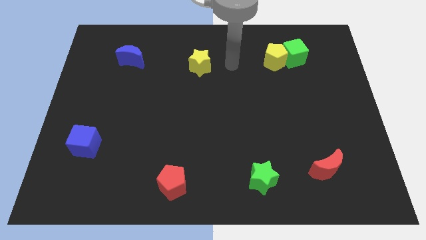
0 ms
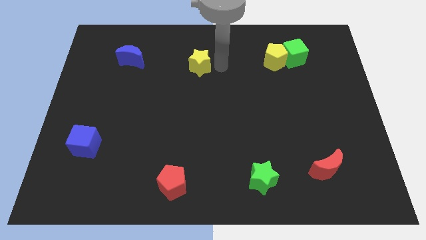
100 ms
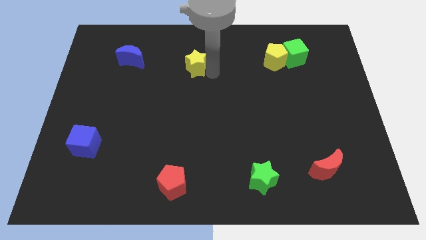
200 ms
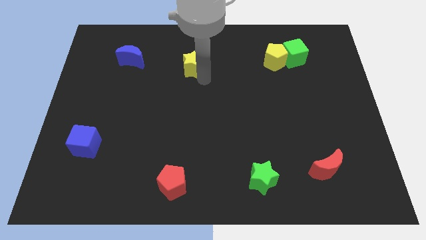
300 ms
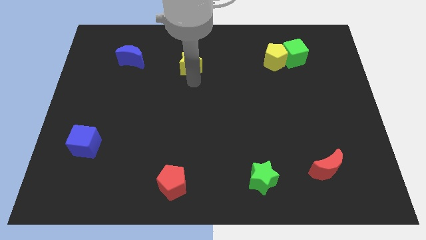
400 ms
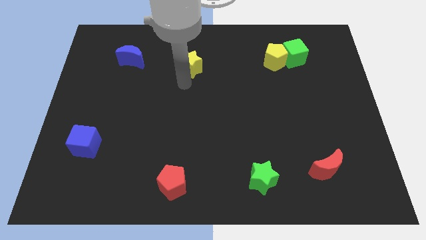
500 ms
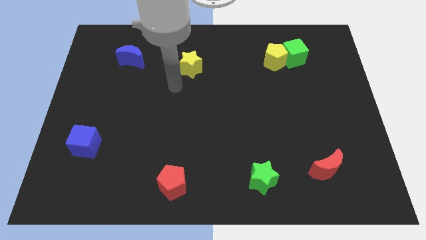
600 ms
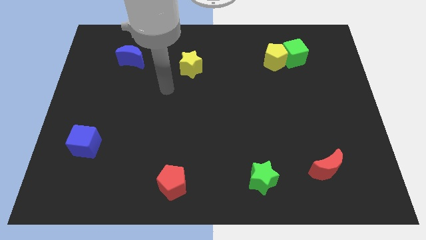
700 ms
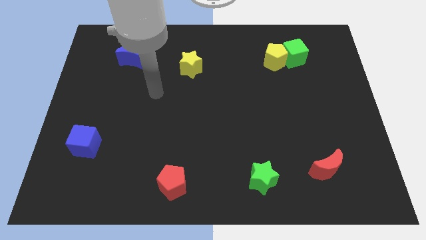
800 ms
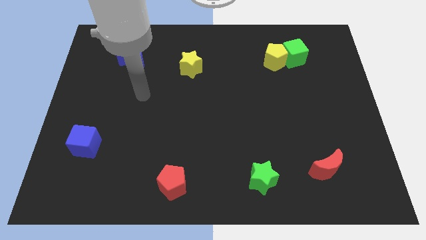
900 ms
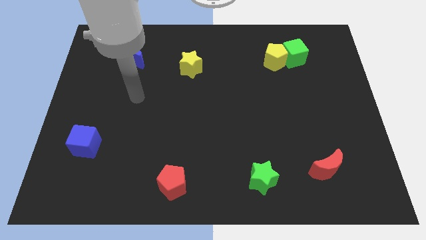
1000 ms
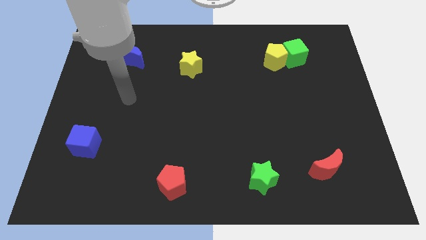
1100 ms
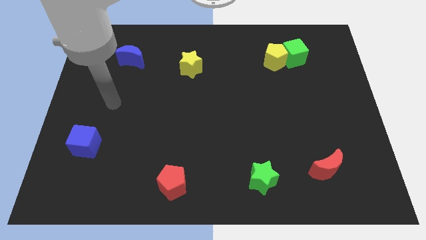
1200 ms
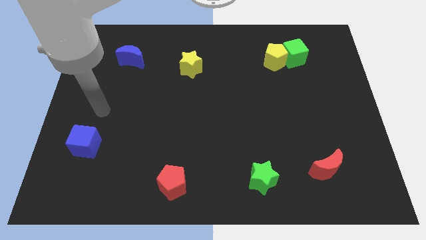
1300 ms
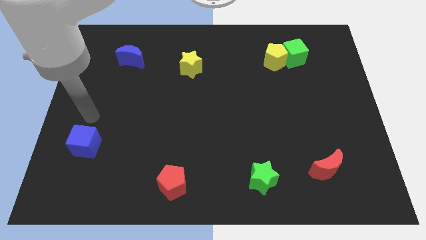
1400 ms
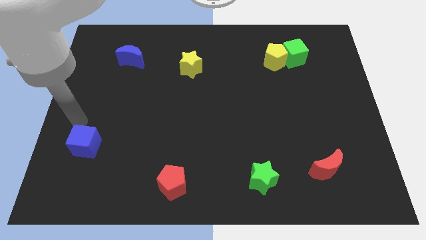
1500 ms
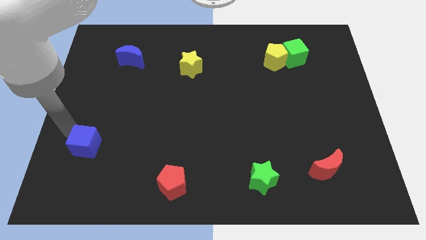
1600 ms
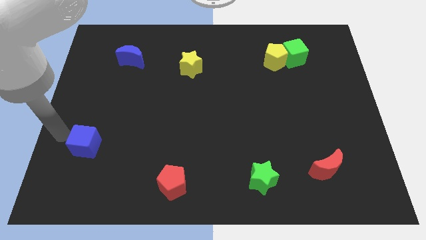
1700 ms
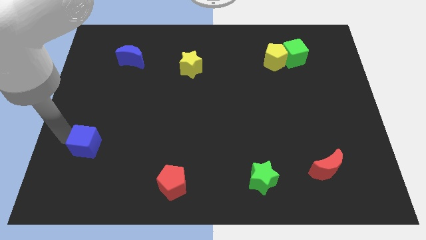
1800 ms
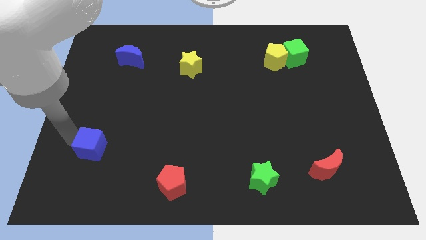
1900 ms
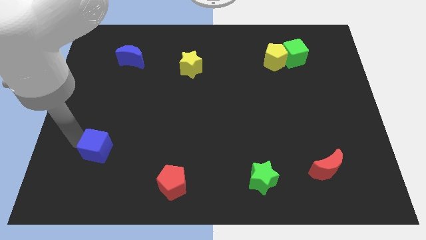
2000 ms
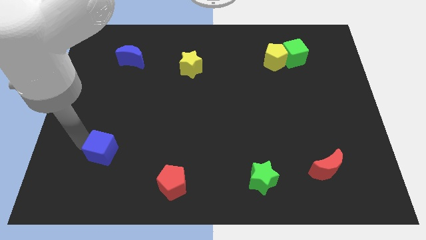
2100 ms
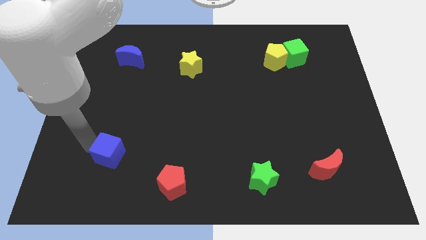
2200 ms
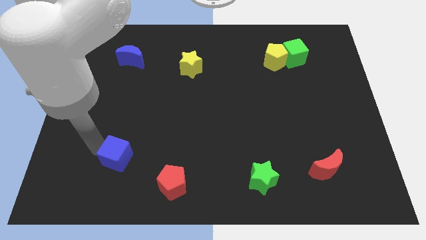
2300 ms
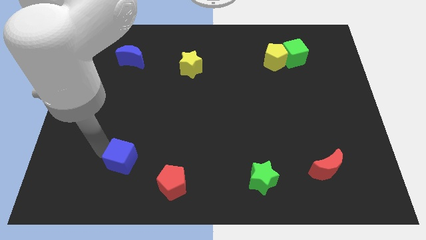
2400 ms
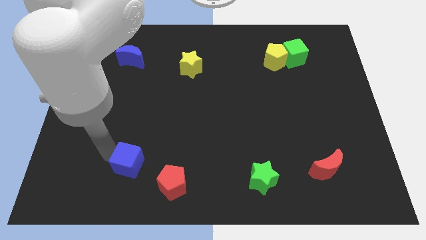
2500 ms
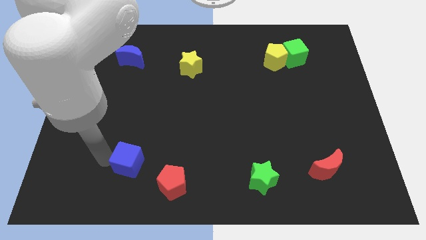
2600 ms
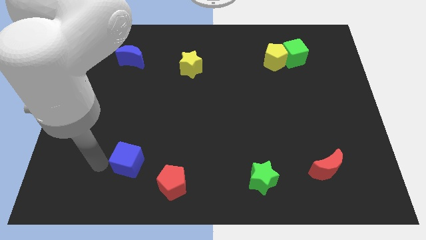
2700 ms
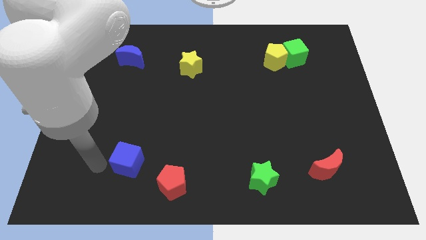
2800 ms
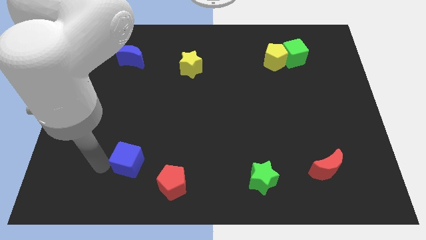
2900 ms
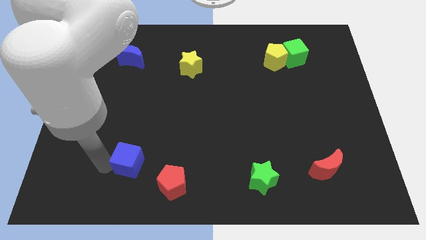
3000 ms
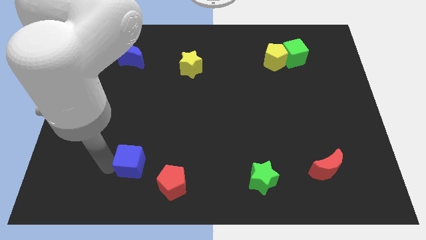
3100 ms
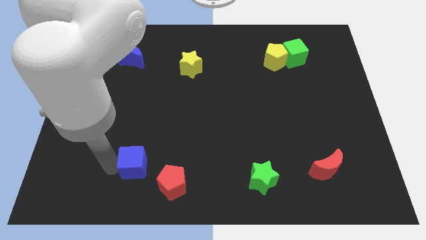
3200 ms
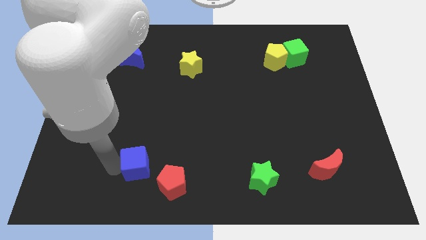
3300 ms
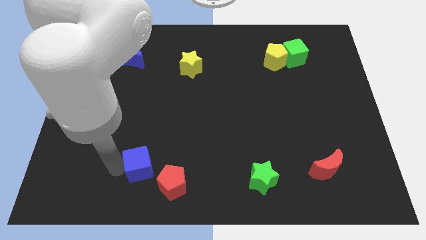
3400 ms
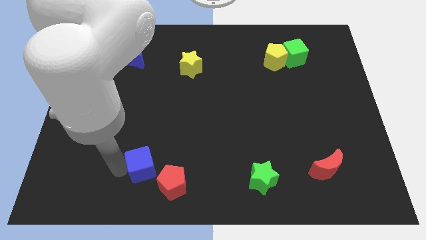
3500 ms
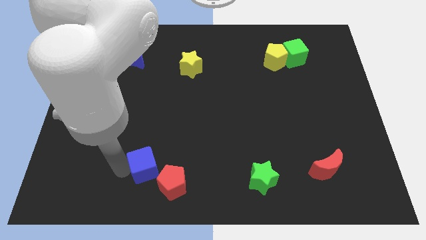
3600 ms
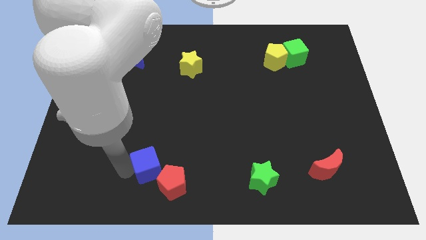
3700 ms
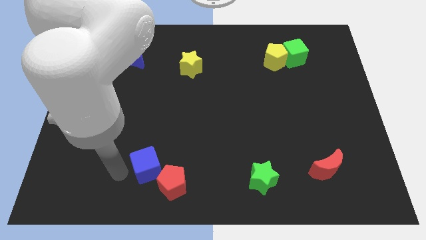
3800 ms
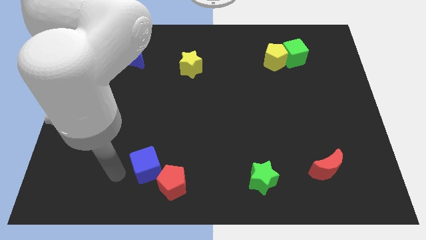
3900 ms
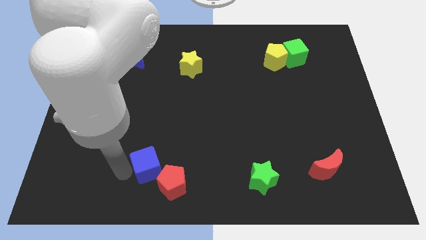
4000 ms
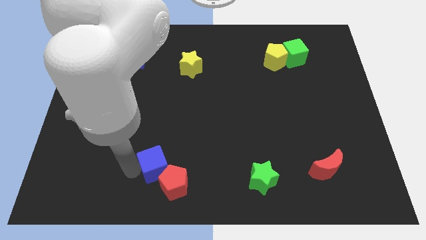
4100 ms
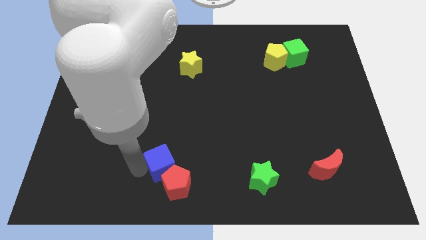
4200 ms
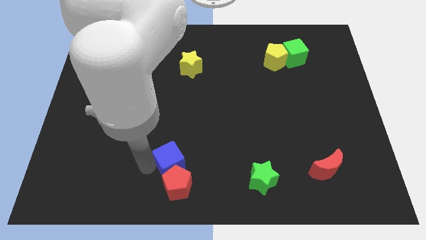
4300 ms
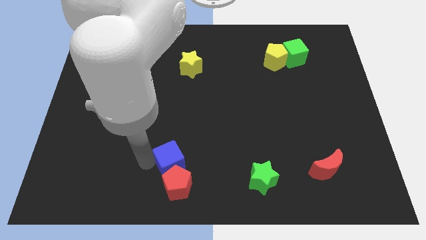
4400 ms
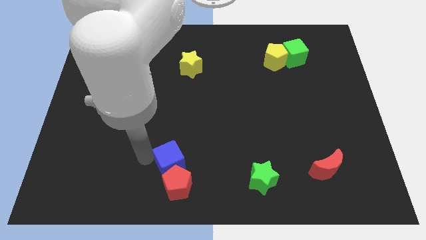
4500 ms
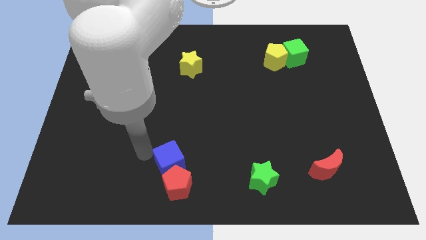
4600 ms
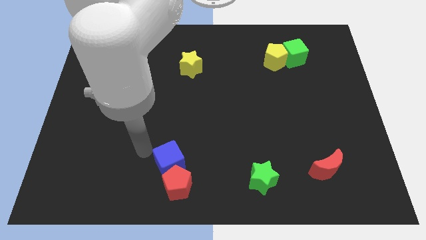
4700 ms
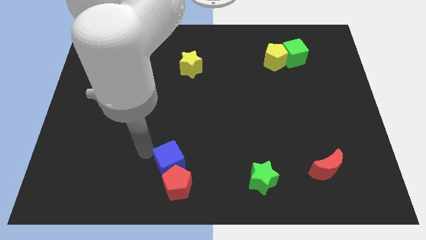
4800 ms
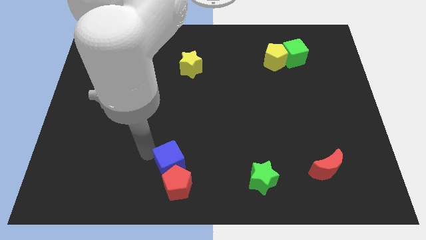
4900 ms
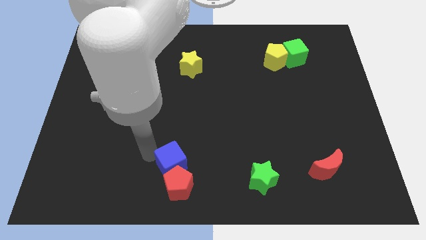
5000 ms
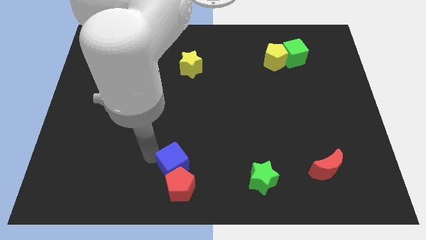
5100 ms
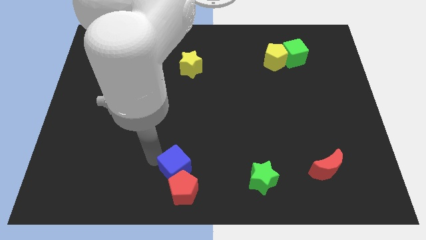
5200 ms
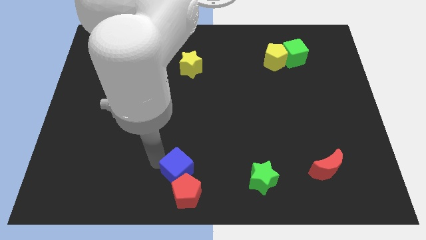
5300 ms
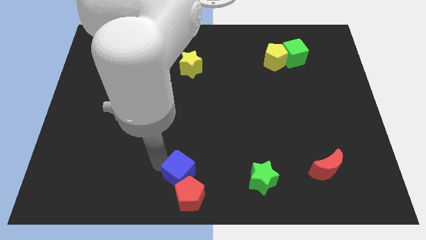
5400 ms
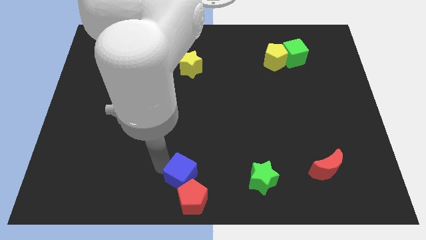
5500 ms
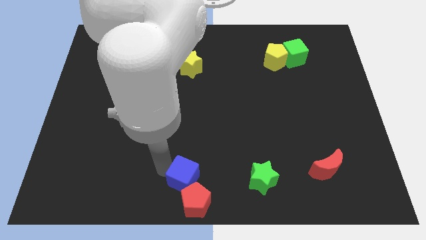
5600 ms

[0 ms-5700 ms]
move the blue cube left of the green star
